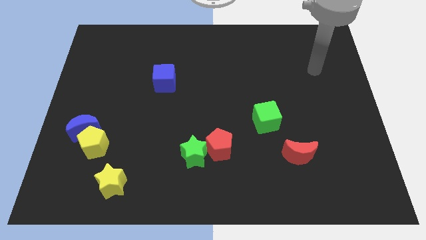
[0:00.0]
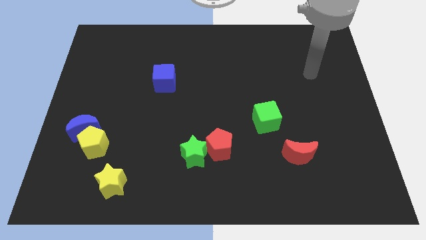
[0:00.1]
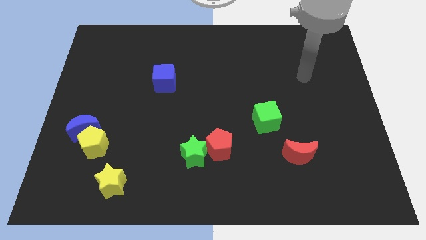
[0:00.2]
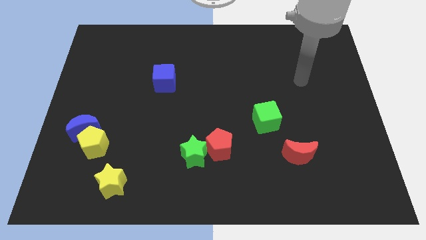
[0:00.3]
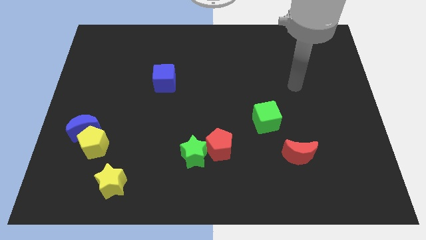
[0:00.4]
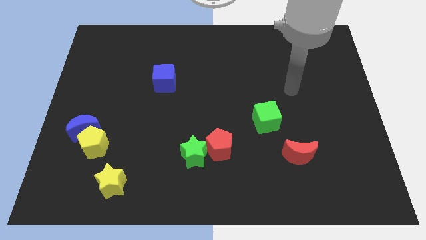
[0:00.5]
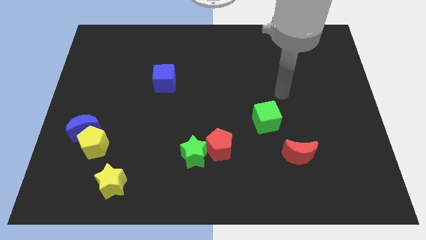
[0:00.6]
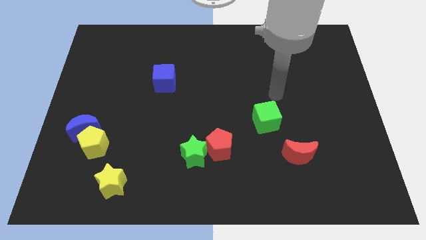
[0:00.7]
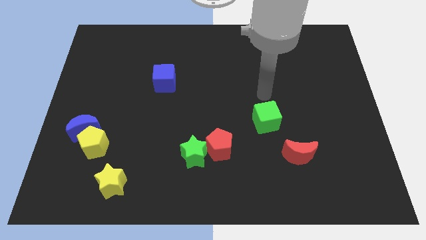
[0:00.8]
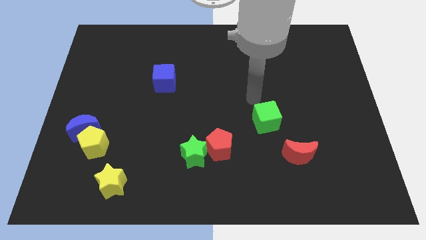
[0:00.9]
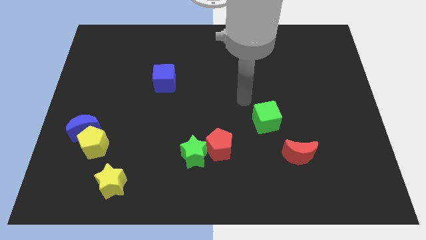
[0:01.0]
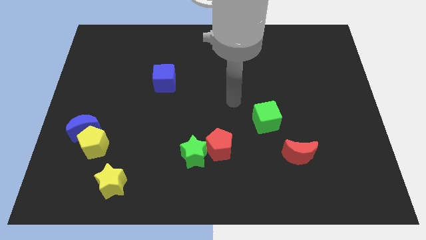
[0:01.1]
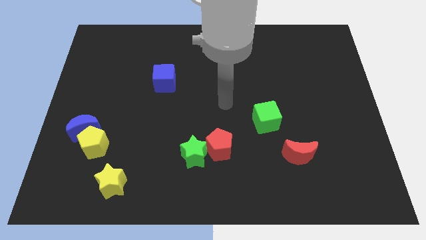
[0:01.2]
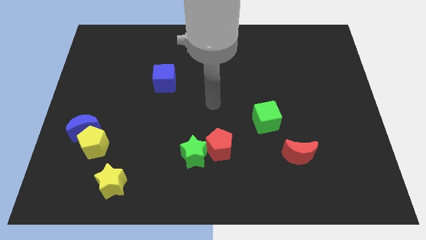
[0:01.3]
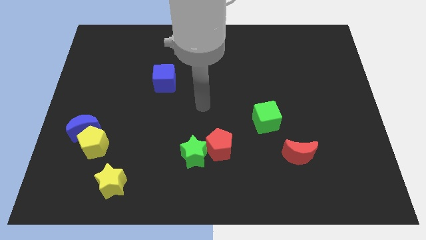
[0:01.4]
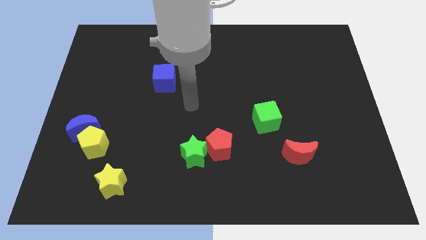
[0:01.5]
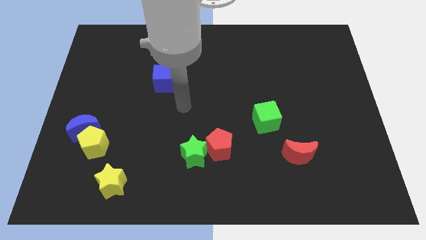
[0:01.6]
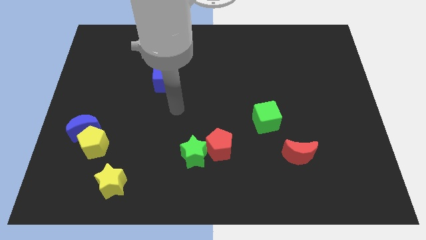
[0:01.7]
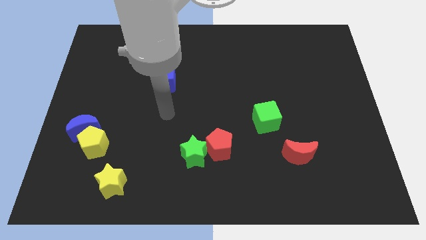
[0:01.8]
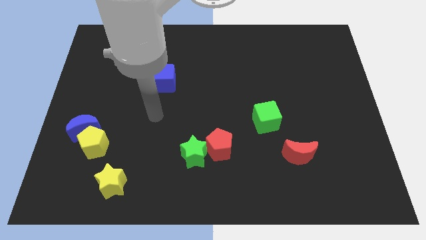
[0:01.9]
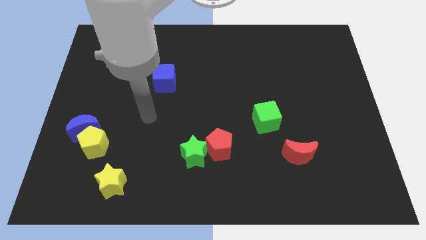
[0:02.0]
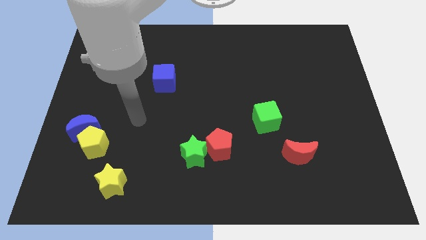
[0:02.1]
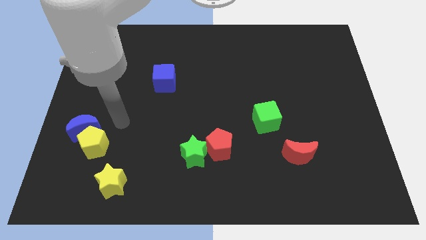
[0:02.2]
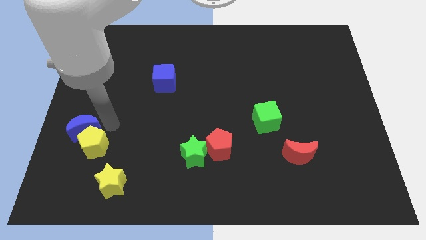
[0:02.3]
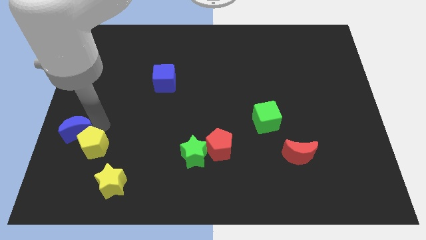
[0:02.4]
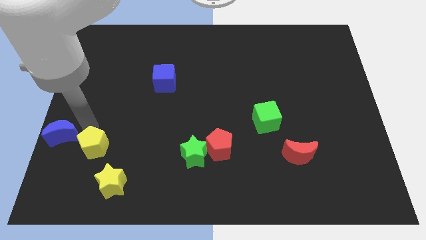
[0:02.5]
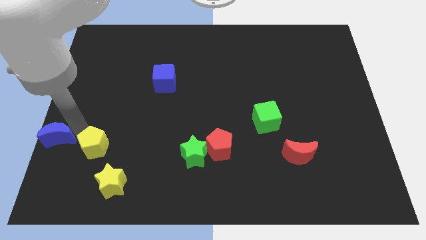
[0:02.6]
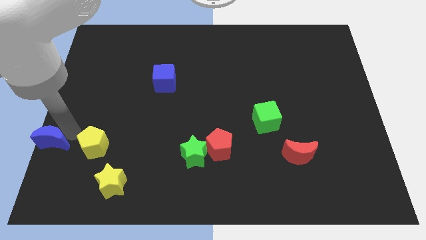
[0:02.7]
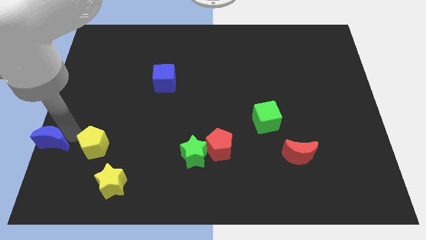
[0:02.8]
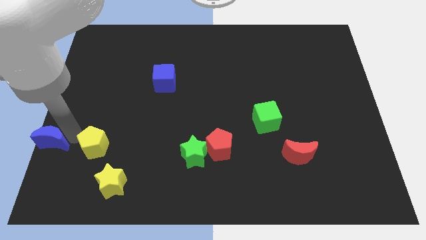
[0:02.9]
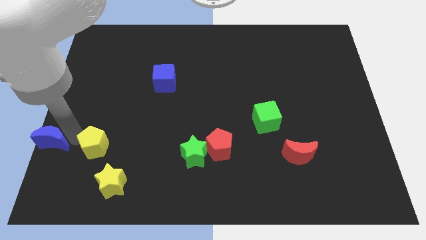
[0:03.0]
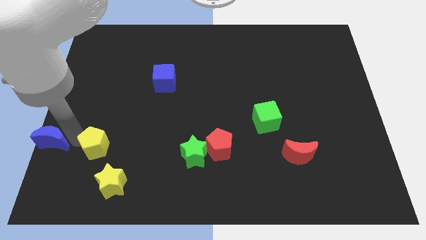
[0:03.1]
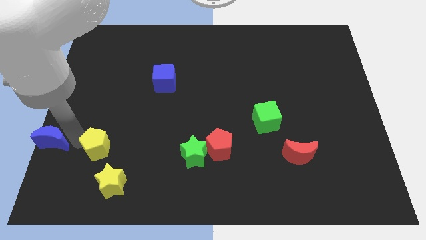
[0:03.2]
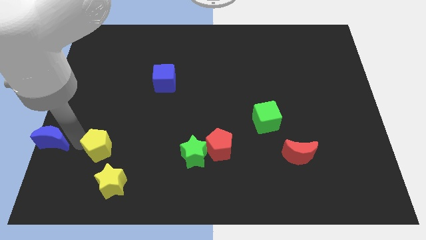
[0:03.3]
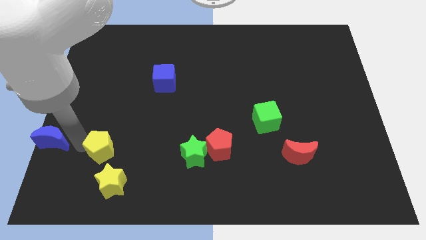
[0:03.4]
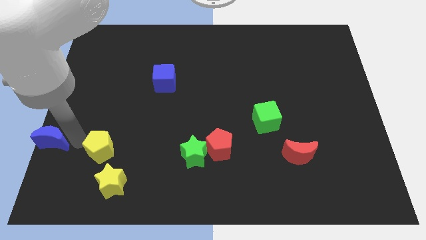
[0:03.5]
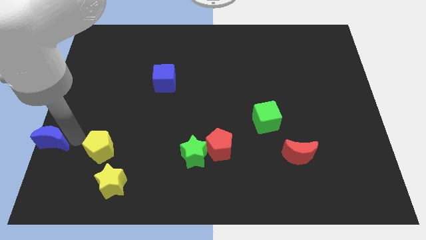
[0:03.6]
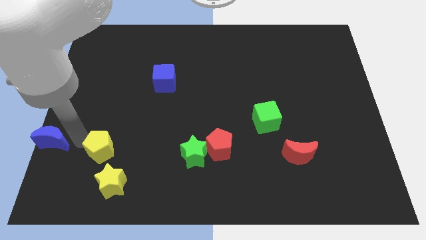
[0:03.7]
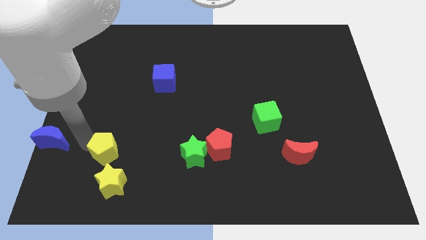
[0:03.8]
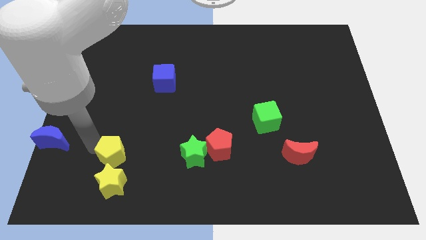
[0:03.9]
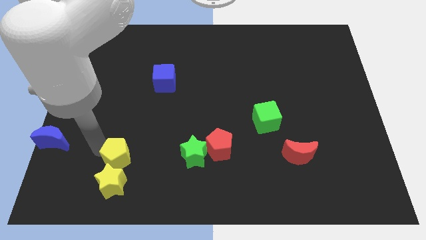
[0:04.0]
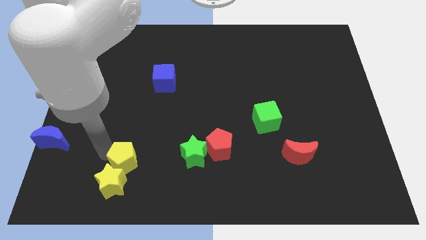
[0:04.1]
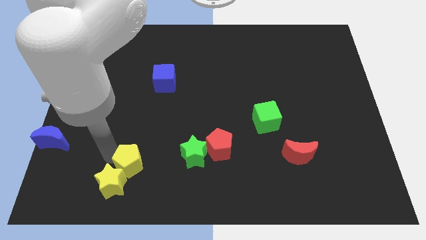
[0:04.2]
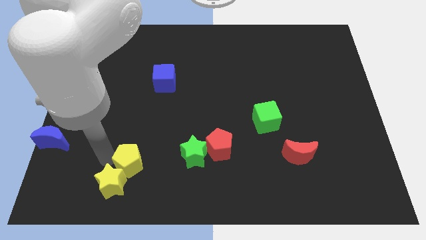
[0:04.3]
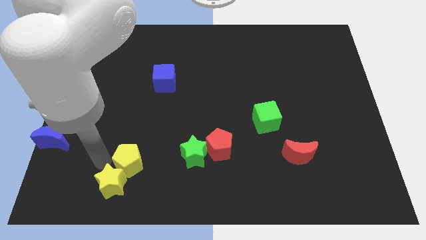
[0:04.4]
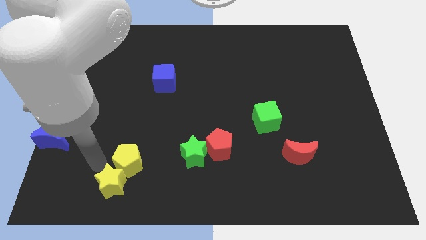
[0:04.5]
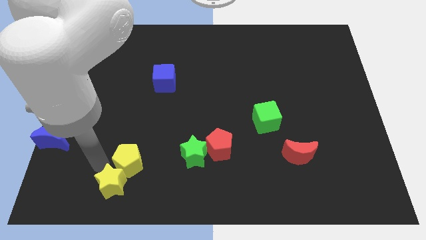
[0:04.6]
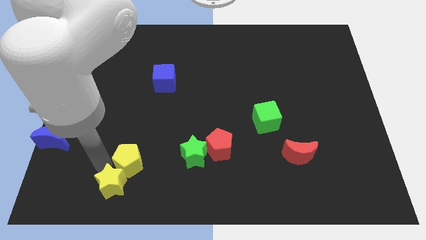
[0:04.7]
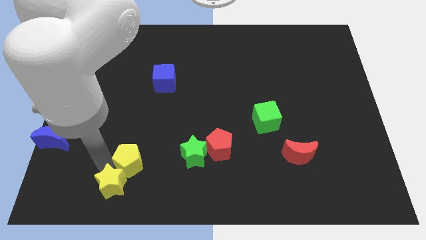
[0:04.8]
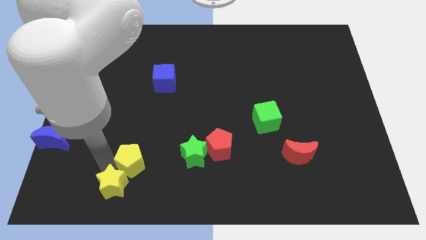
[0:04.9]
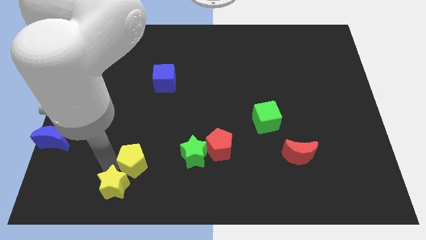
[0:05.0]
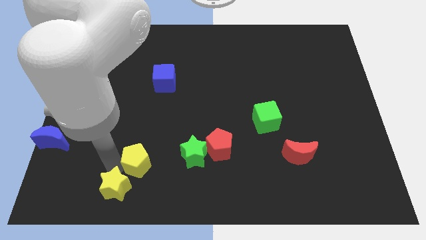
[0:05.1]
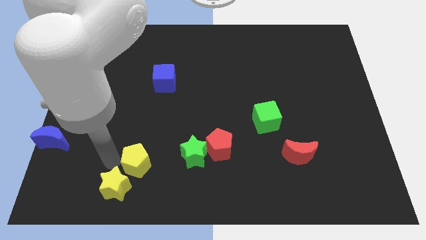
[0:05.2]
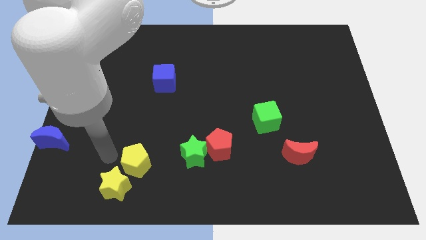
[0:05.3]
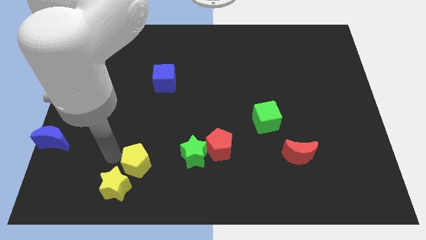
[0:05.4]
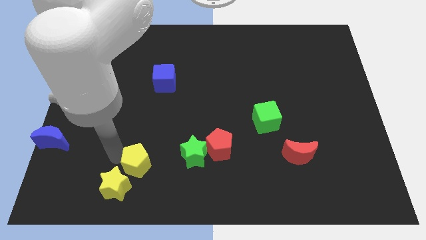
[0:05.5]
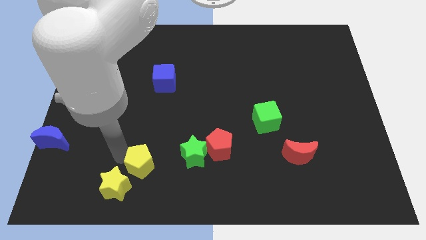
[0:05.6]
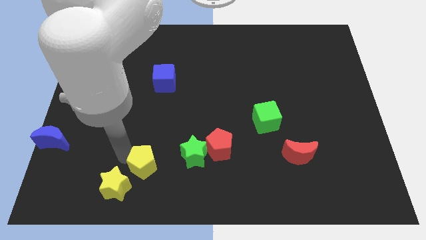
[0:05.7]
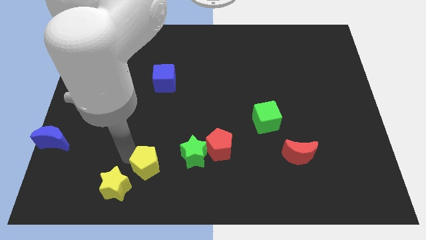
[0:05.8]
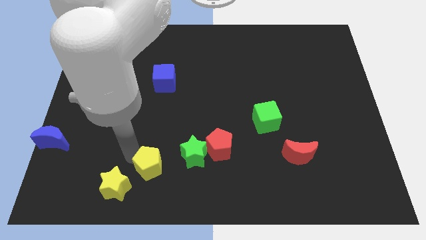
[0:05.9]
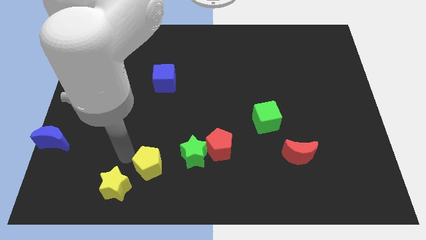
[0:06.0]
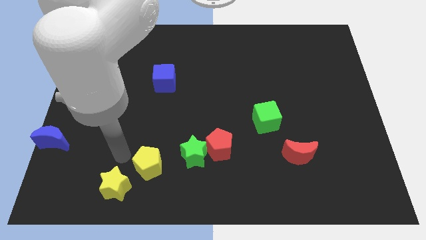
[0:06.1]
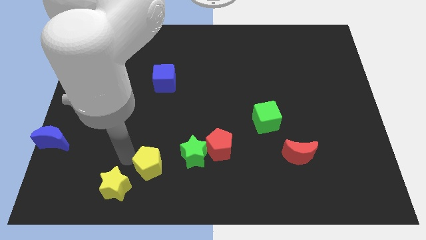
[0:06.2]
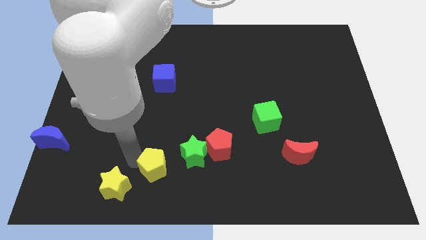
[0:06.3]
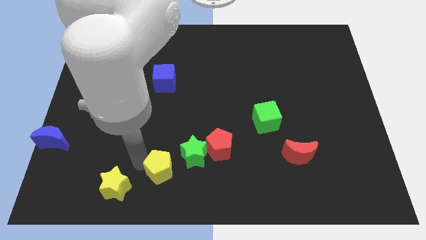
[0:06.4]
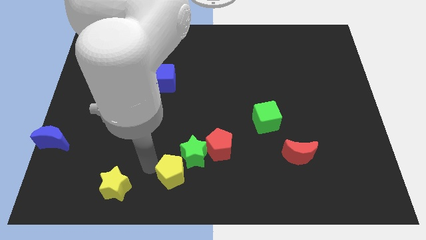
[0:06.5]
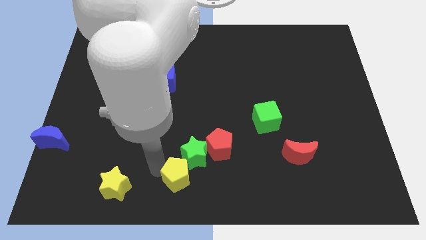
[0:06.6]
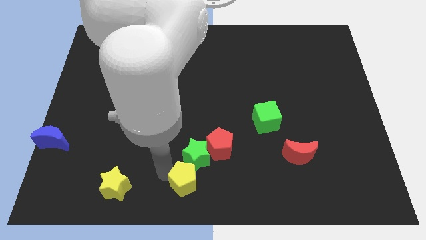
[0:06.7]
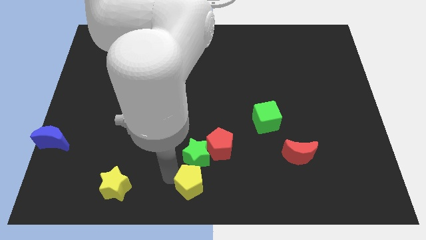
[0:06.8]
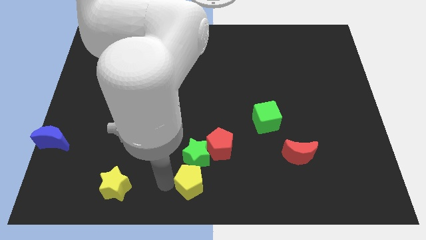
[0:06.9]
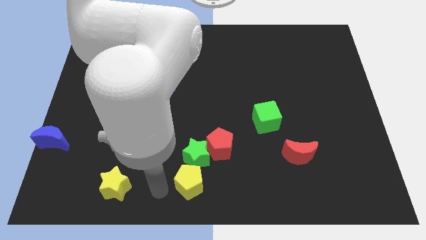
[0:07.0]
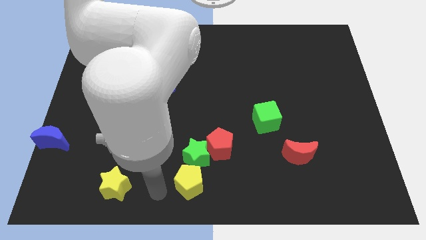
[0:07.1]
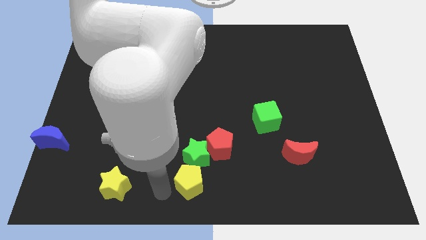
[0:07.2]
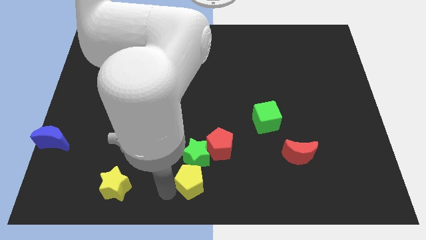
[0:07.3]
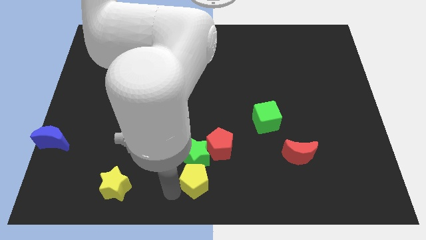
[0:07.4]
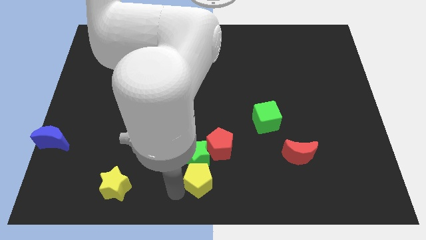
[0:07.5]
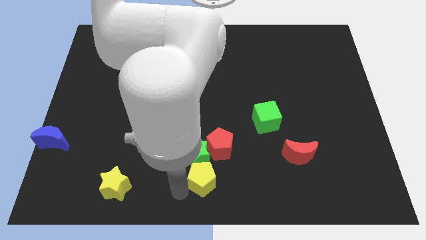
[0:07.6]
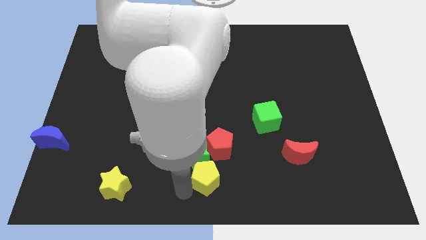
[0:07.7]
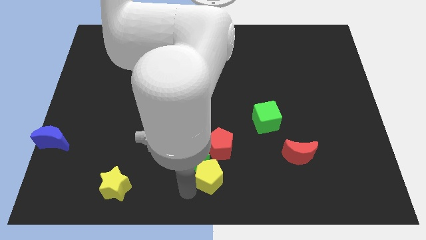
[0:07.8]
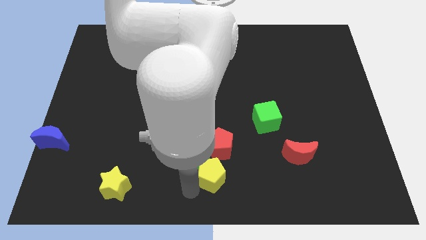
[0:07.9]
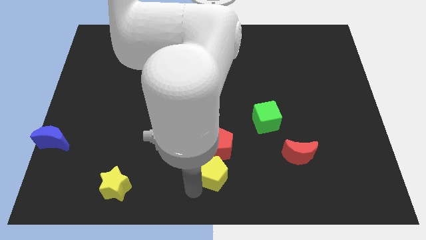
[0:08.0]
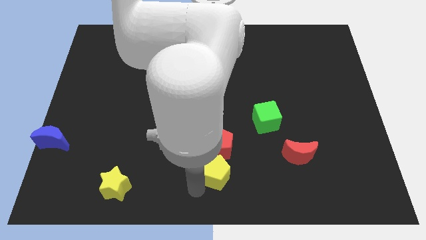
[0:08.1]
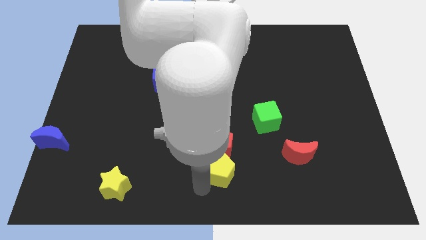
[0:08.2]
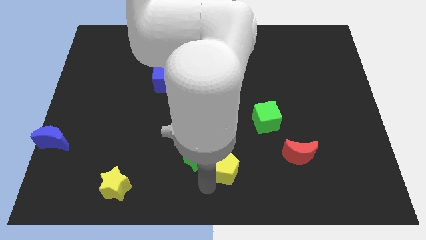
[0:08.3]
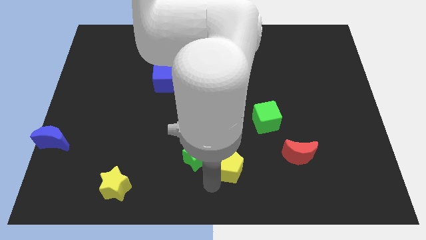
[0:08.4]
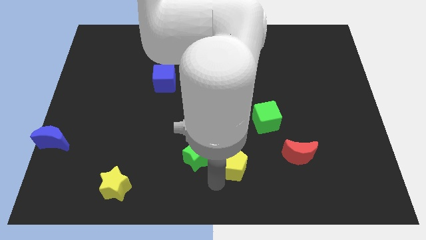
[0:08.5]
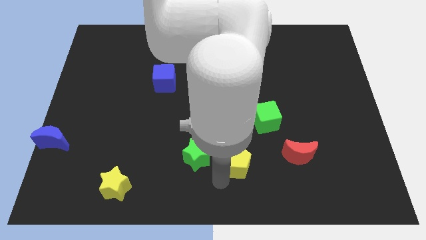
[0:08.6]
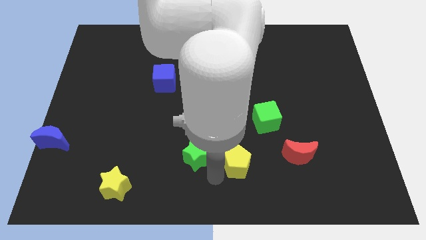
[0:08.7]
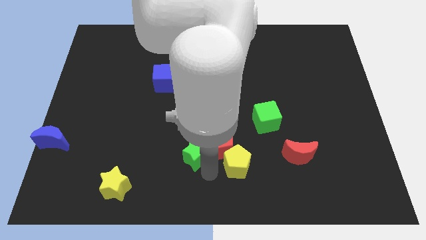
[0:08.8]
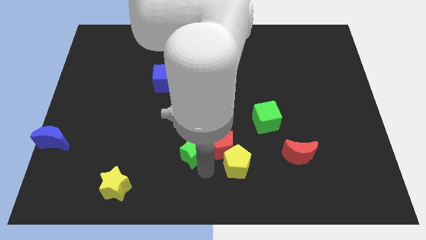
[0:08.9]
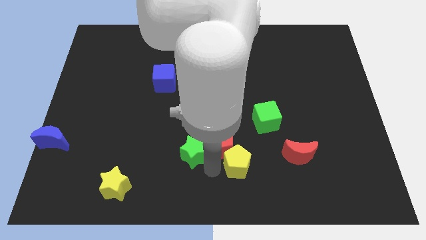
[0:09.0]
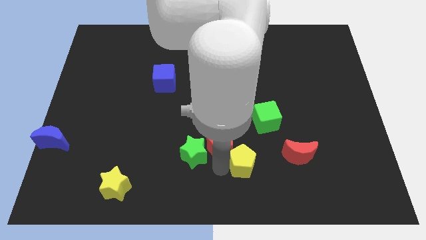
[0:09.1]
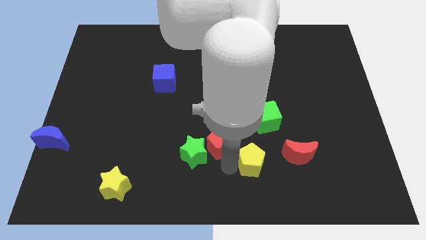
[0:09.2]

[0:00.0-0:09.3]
move the yellow pentagon to the bottom of the green cube
